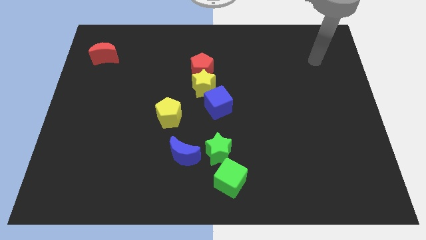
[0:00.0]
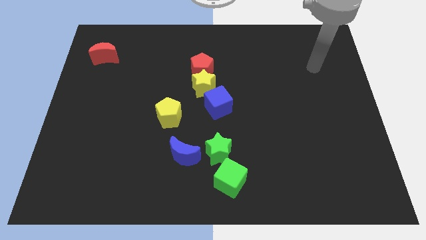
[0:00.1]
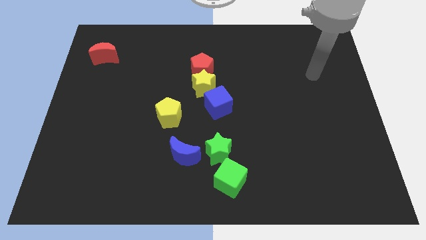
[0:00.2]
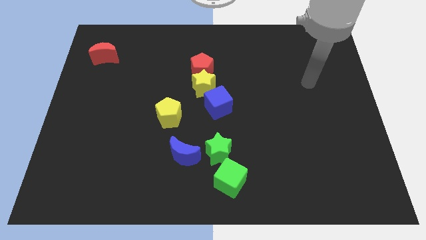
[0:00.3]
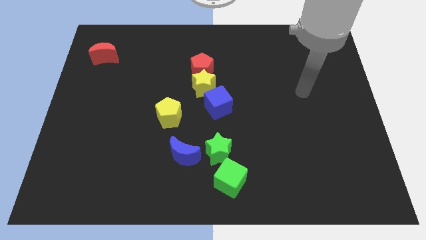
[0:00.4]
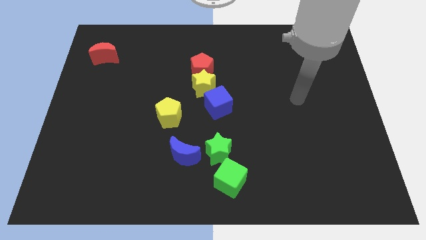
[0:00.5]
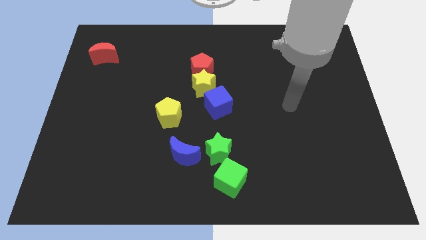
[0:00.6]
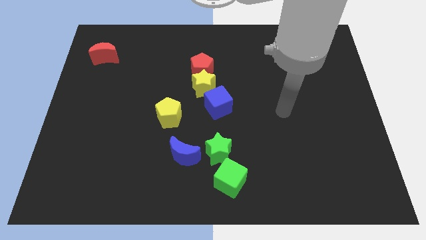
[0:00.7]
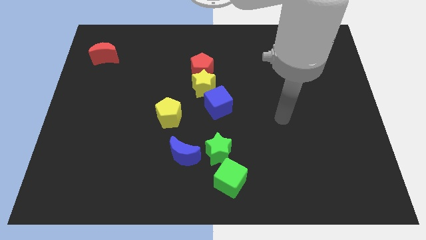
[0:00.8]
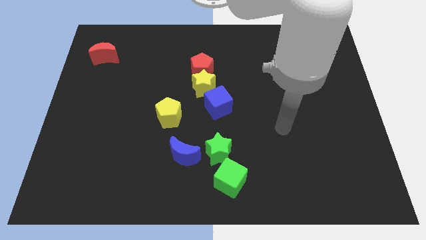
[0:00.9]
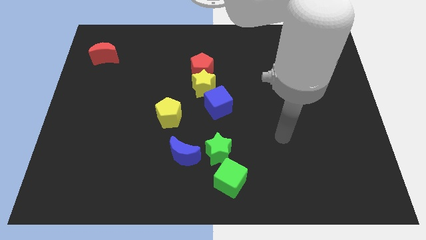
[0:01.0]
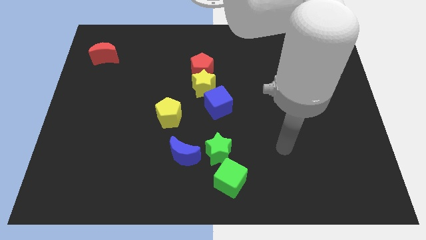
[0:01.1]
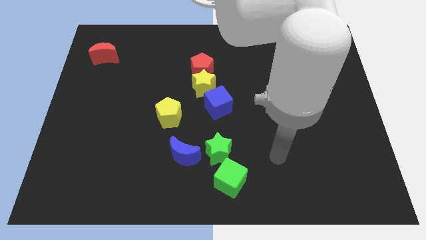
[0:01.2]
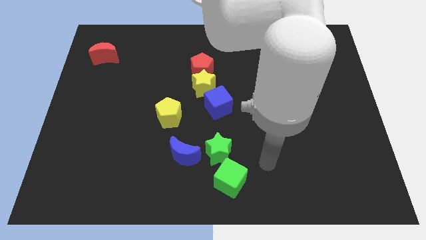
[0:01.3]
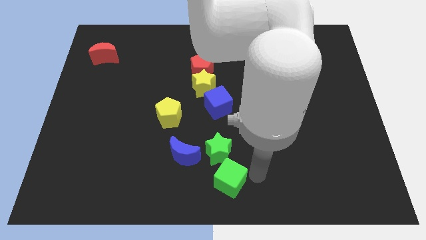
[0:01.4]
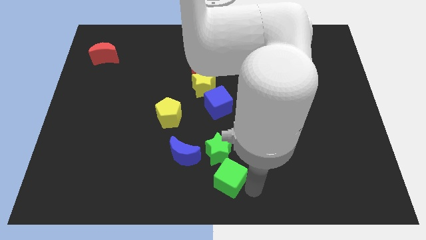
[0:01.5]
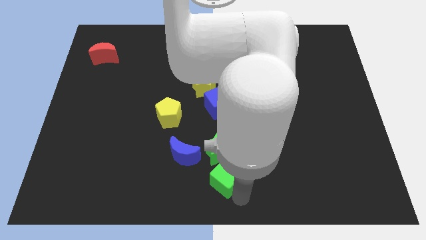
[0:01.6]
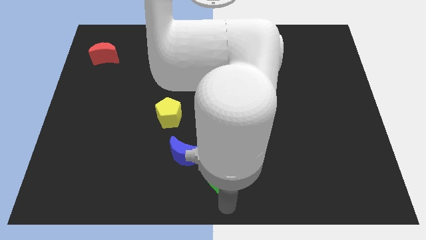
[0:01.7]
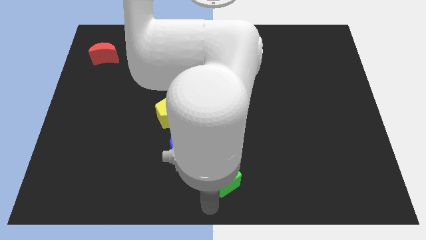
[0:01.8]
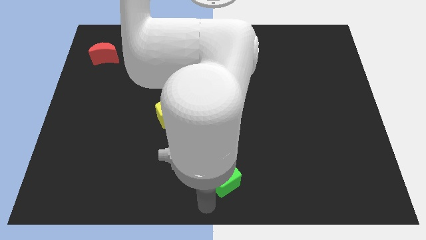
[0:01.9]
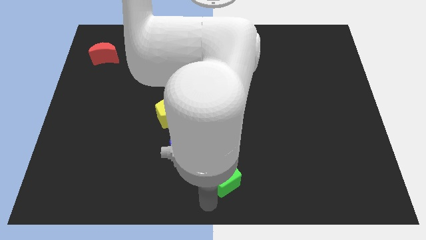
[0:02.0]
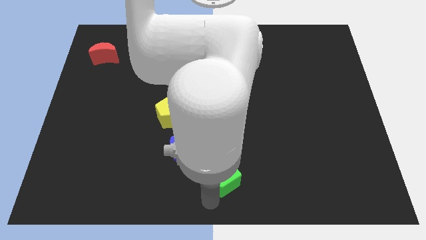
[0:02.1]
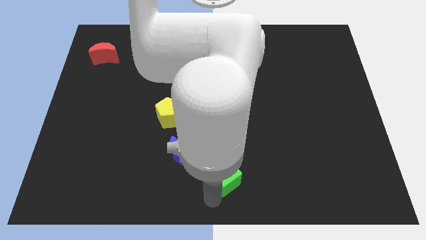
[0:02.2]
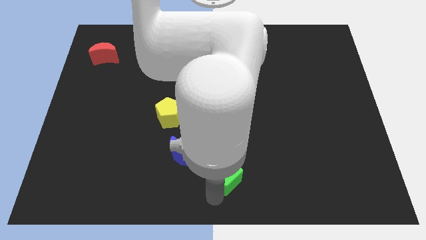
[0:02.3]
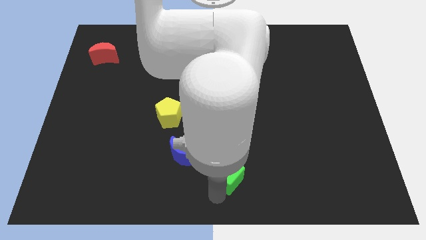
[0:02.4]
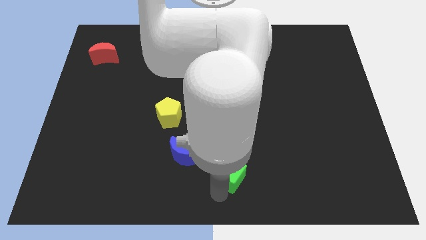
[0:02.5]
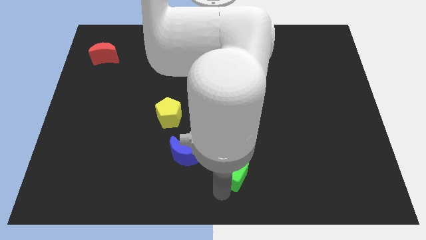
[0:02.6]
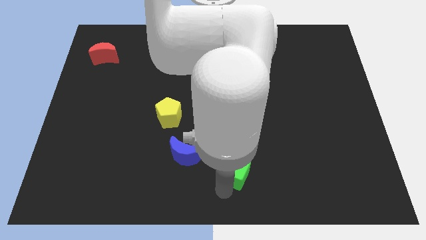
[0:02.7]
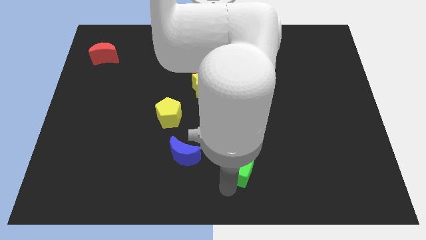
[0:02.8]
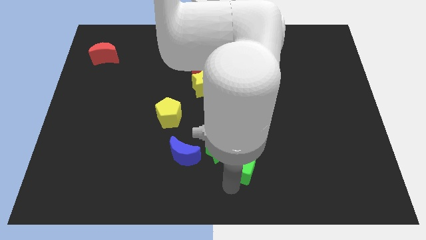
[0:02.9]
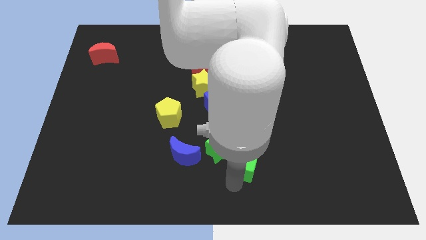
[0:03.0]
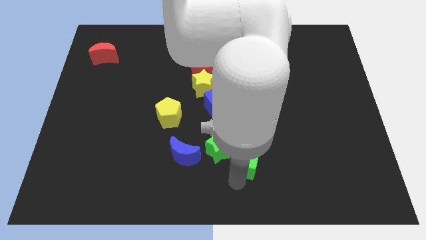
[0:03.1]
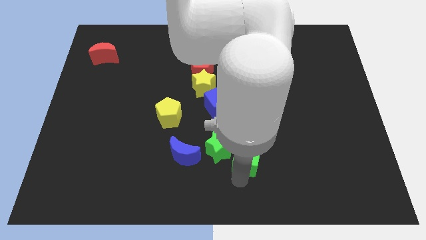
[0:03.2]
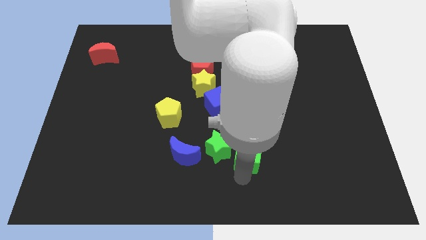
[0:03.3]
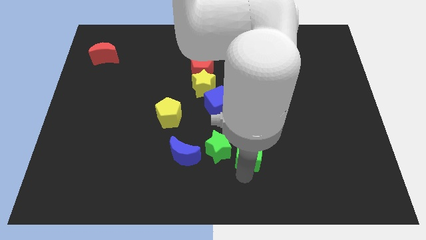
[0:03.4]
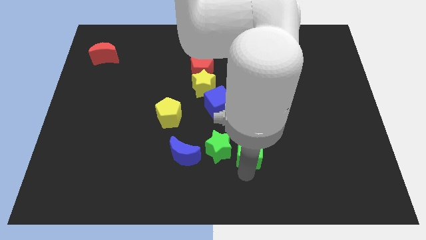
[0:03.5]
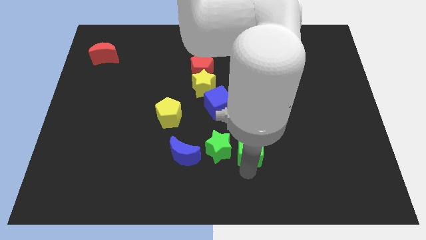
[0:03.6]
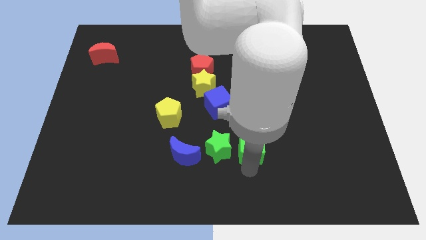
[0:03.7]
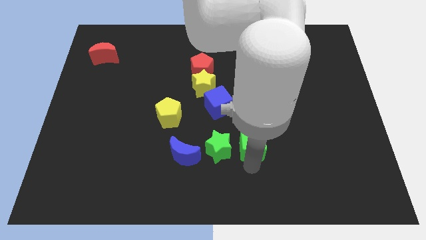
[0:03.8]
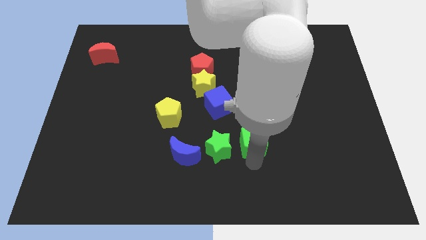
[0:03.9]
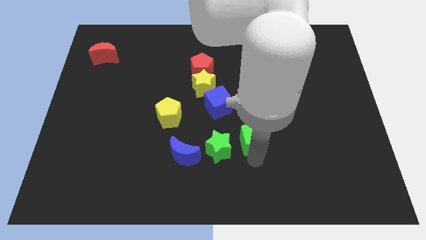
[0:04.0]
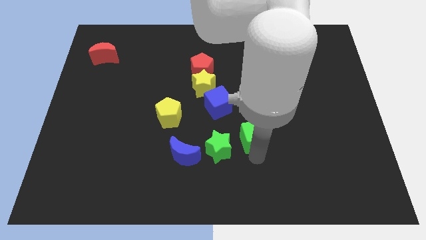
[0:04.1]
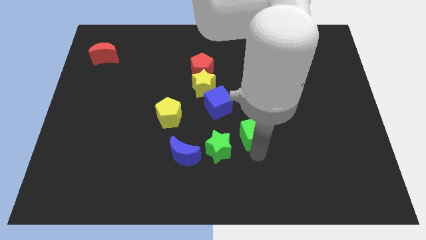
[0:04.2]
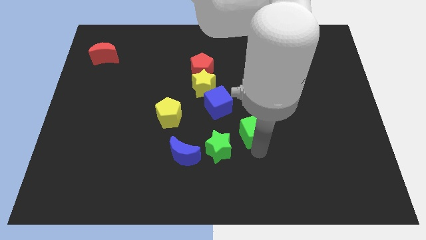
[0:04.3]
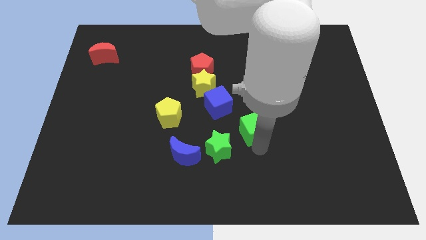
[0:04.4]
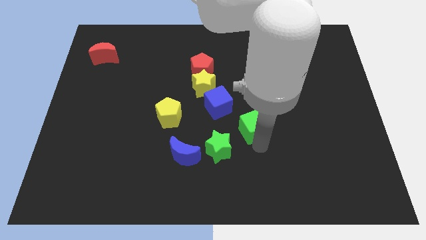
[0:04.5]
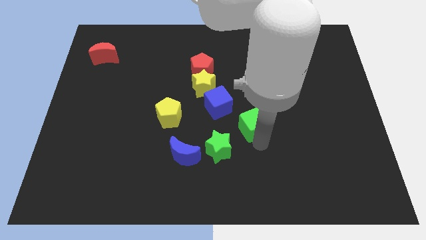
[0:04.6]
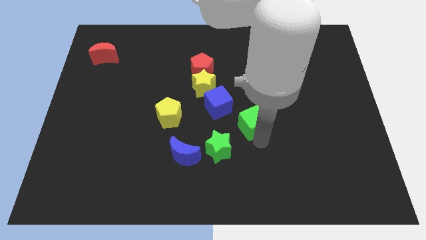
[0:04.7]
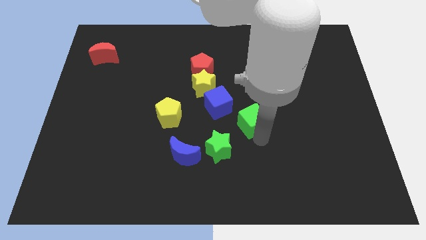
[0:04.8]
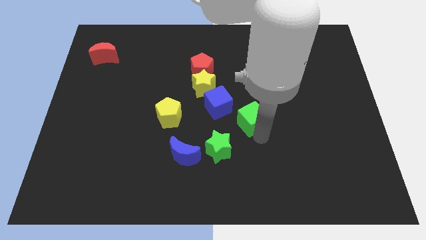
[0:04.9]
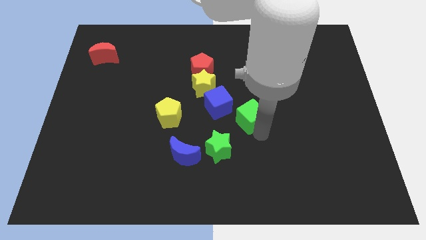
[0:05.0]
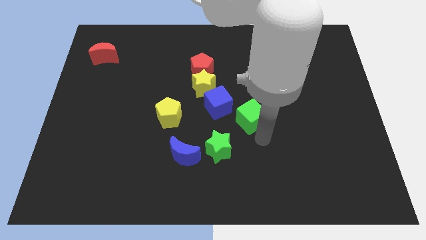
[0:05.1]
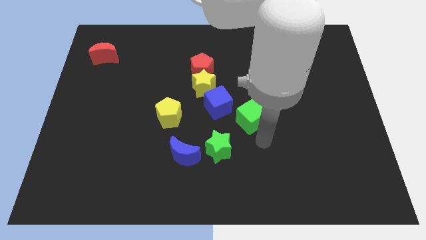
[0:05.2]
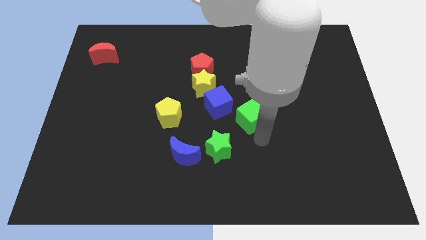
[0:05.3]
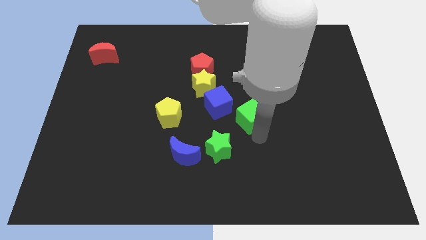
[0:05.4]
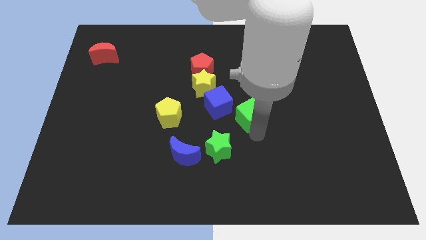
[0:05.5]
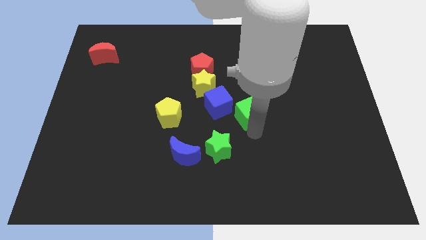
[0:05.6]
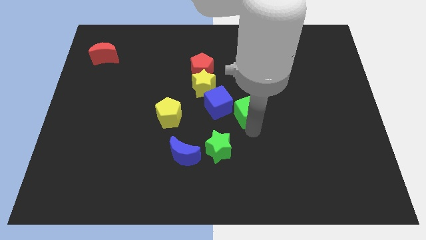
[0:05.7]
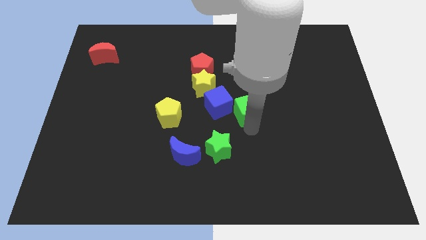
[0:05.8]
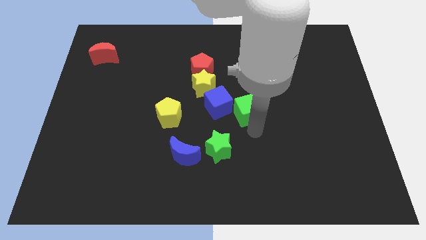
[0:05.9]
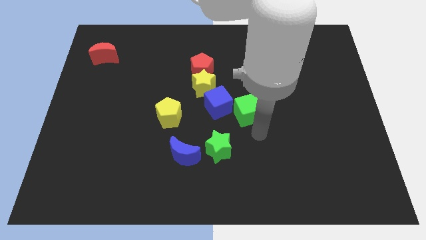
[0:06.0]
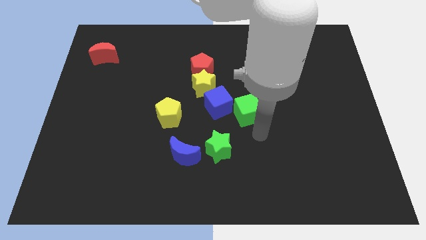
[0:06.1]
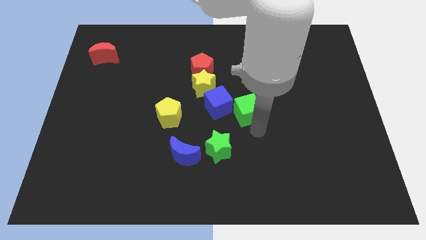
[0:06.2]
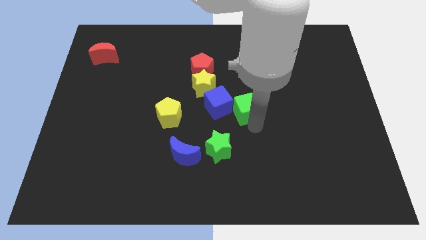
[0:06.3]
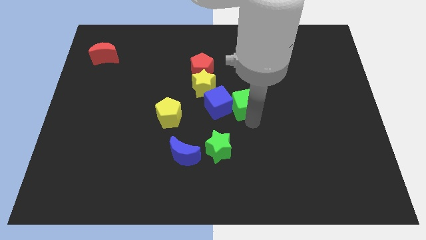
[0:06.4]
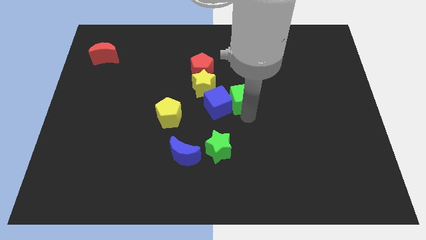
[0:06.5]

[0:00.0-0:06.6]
push the green cube to the right side of the yellow star

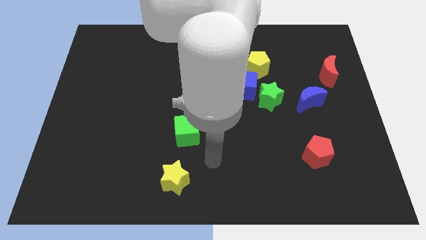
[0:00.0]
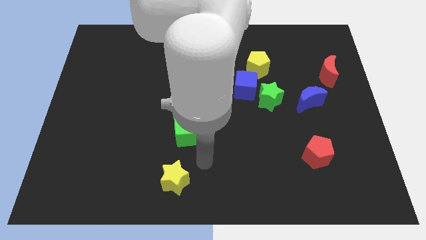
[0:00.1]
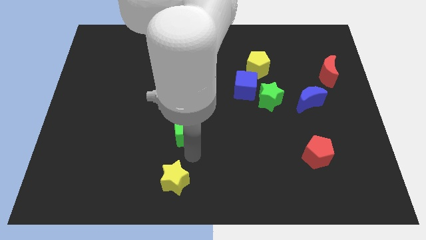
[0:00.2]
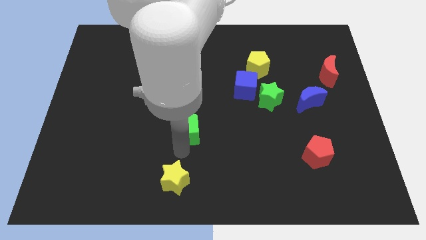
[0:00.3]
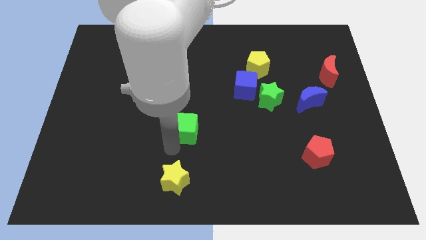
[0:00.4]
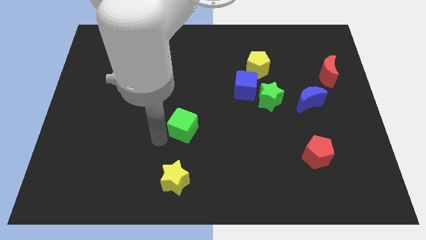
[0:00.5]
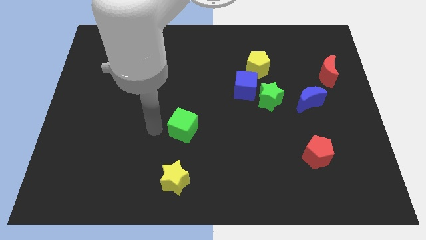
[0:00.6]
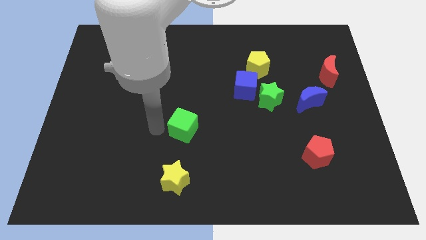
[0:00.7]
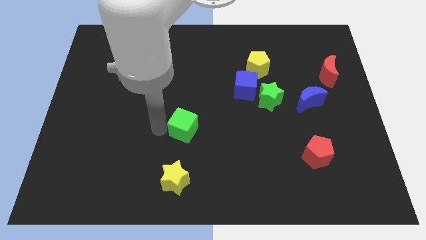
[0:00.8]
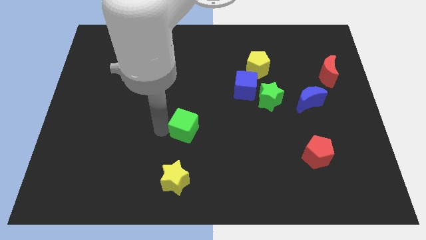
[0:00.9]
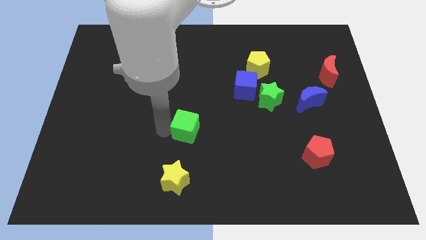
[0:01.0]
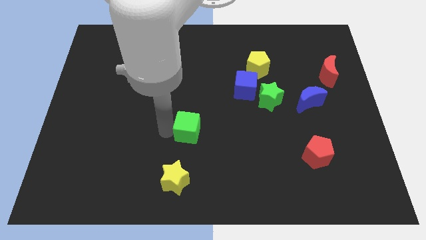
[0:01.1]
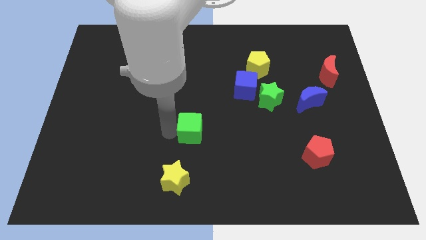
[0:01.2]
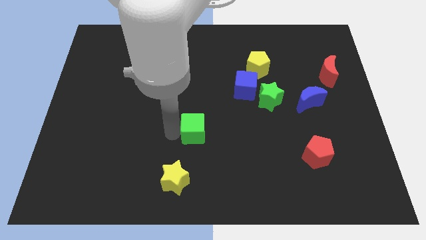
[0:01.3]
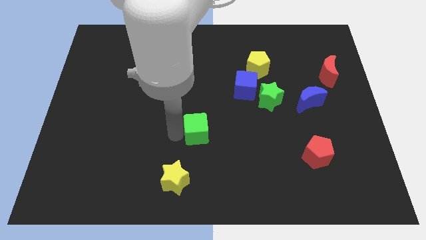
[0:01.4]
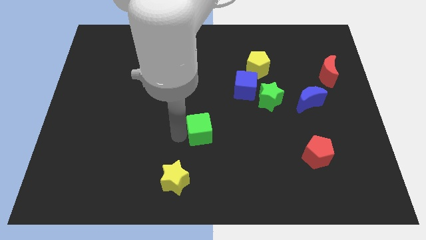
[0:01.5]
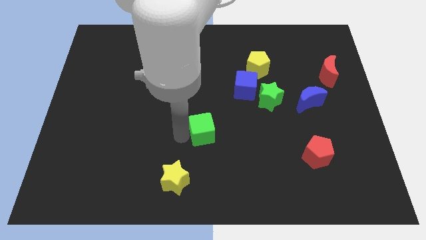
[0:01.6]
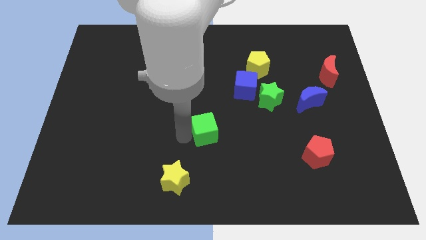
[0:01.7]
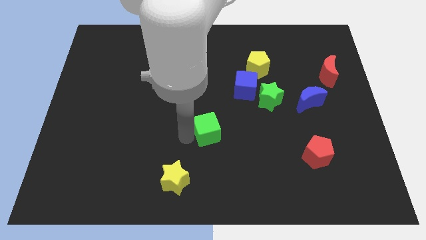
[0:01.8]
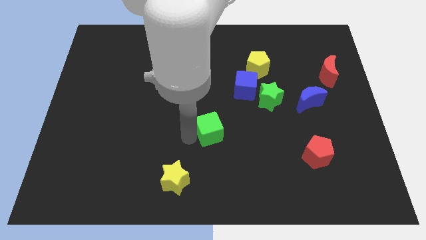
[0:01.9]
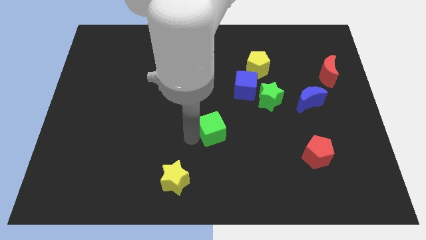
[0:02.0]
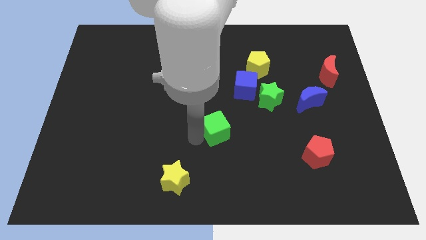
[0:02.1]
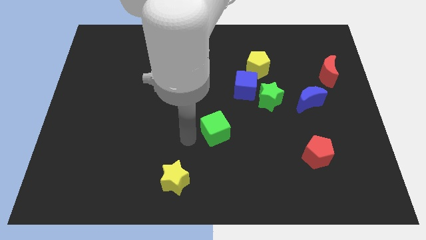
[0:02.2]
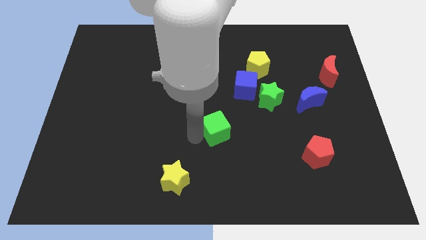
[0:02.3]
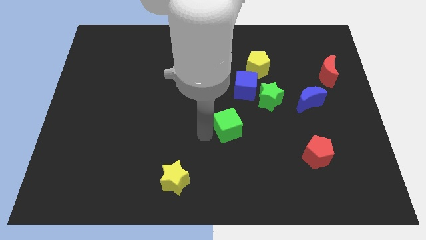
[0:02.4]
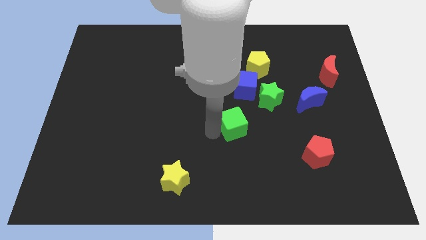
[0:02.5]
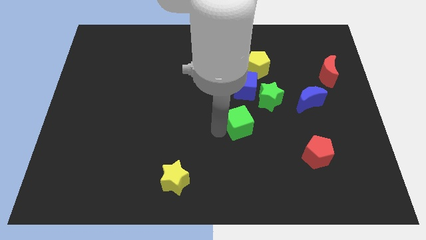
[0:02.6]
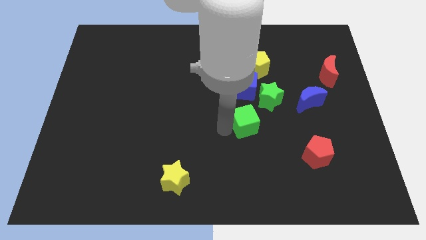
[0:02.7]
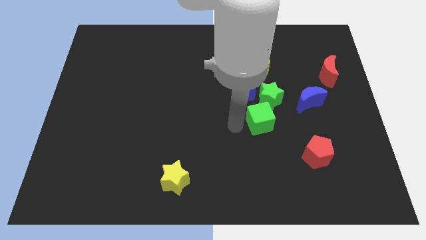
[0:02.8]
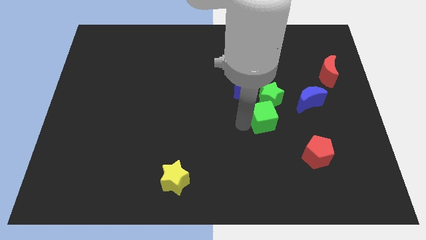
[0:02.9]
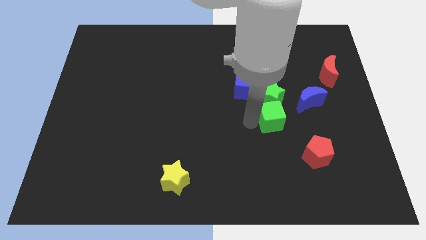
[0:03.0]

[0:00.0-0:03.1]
slide the green cube diagonally down and to the left of the blue moon
